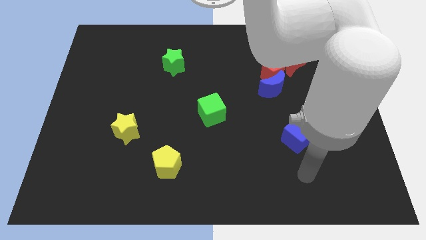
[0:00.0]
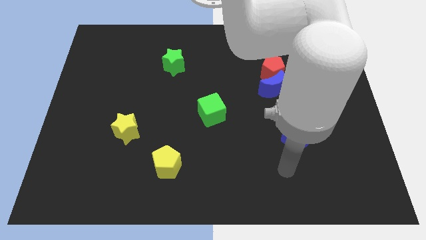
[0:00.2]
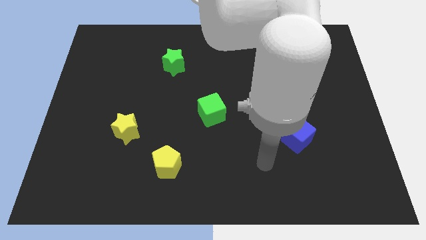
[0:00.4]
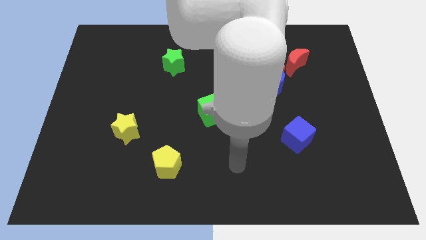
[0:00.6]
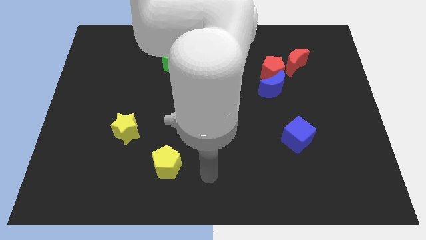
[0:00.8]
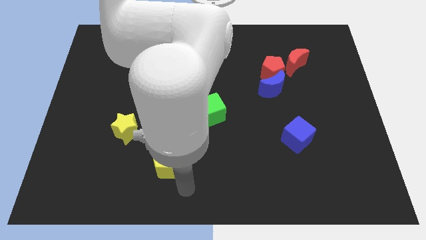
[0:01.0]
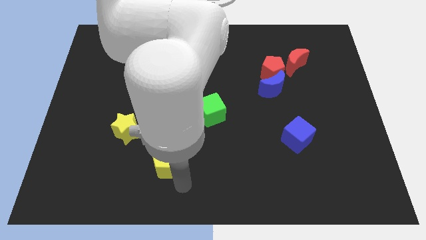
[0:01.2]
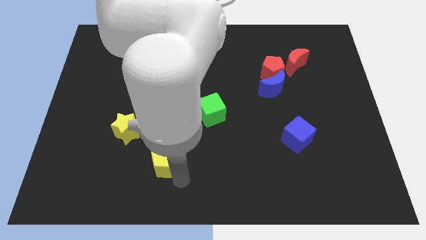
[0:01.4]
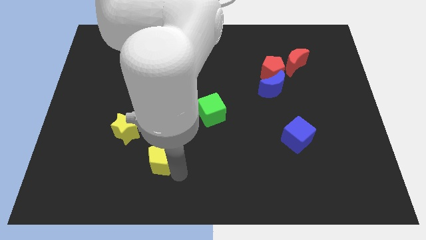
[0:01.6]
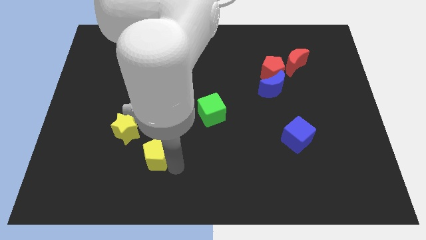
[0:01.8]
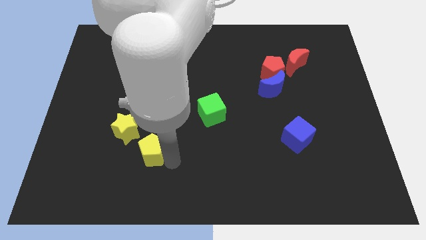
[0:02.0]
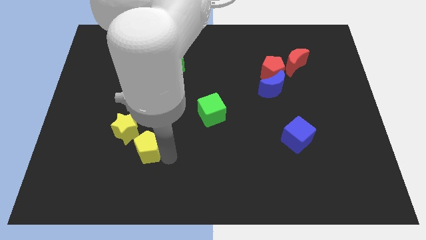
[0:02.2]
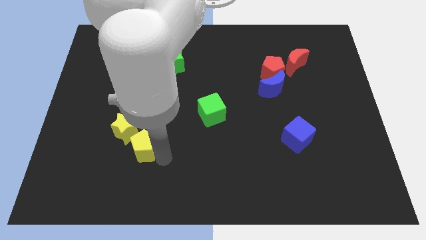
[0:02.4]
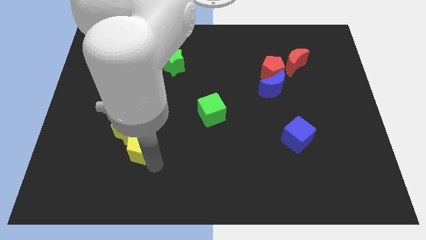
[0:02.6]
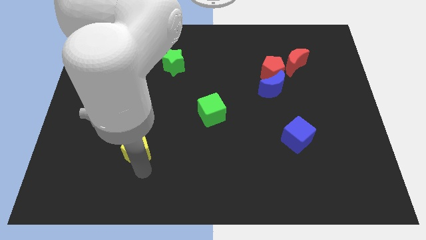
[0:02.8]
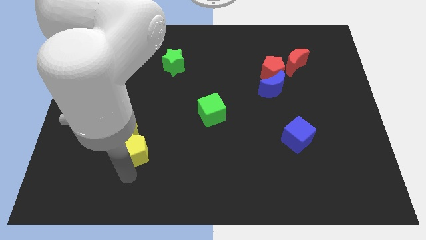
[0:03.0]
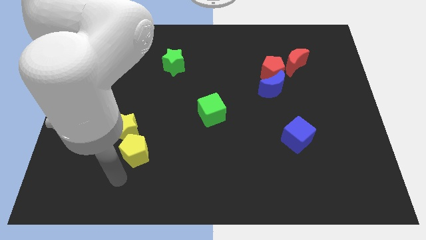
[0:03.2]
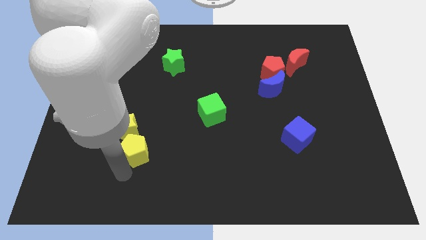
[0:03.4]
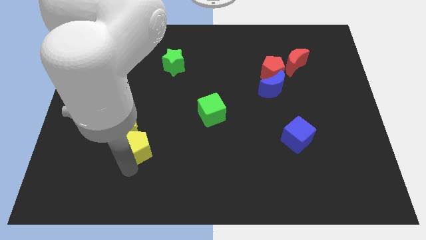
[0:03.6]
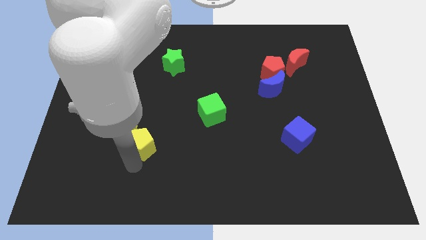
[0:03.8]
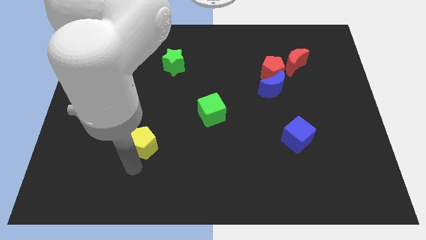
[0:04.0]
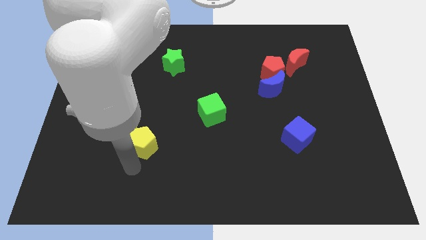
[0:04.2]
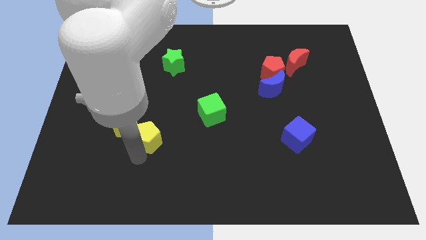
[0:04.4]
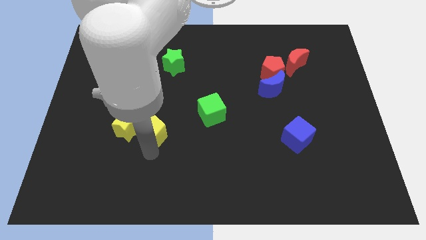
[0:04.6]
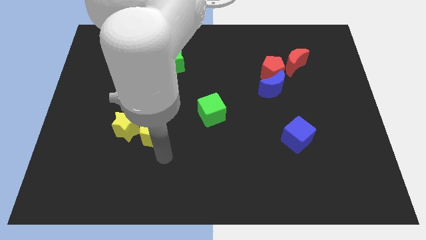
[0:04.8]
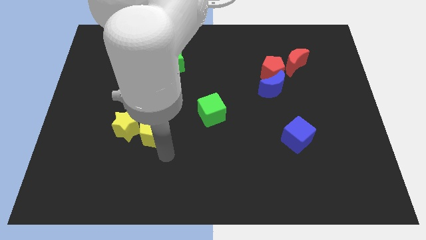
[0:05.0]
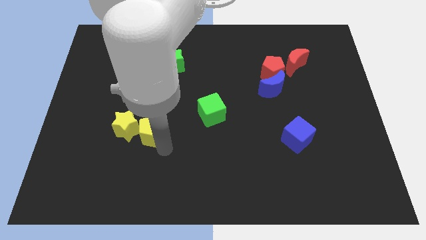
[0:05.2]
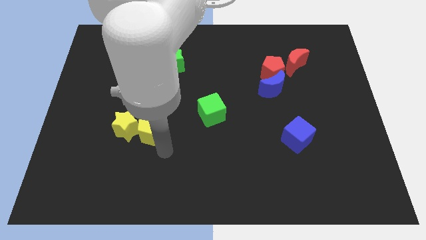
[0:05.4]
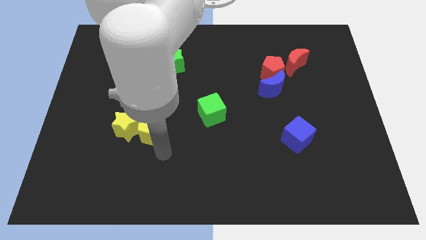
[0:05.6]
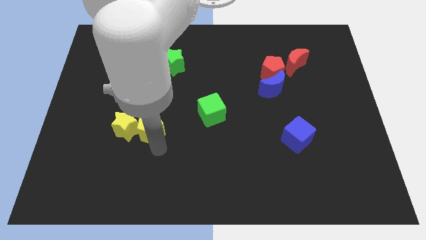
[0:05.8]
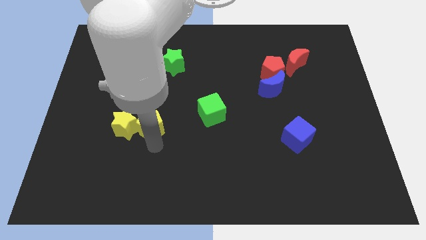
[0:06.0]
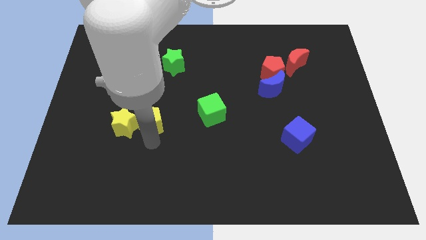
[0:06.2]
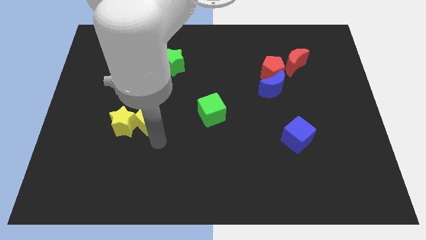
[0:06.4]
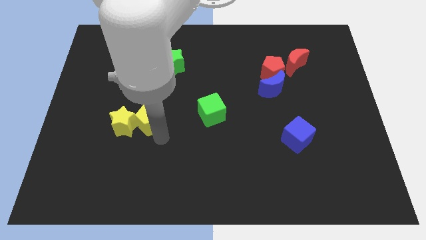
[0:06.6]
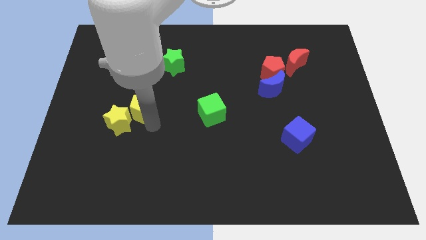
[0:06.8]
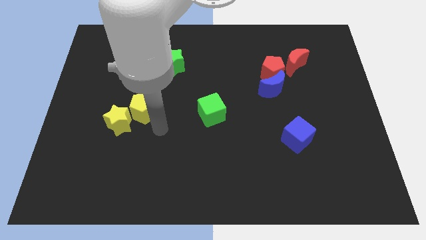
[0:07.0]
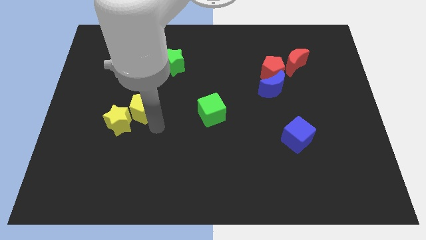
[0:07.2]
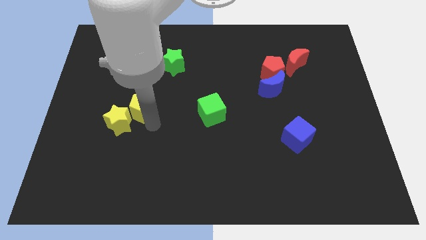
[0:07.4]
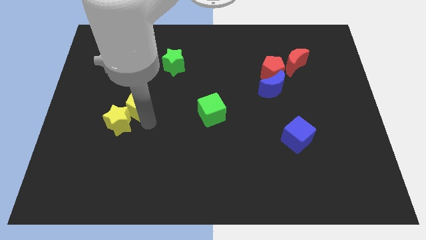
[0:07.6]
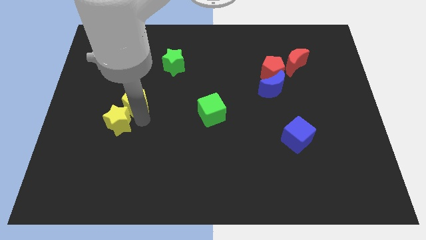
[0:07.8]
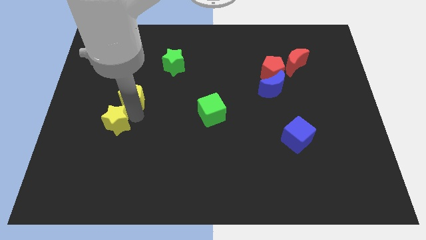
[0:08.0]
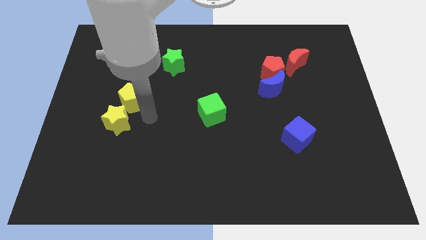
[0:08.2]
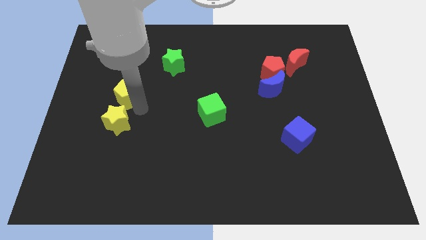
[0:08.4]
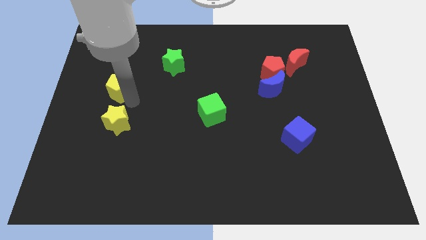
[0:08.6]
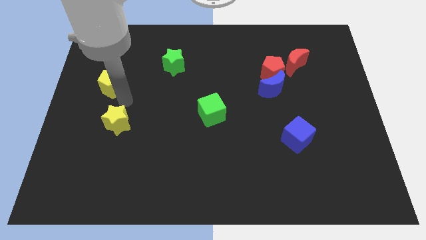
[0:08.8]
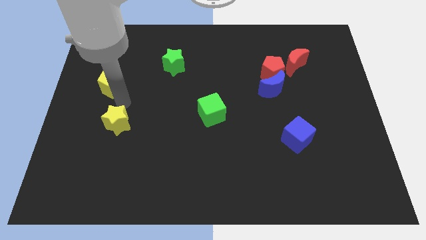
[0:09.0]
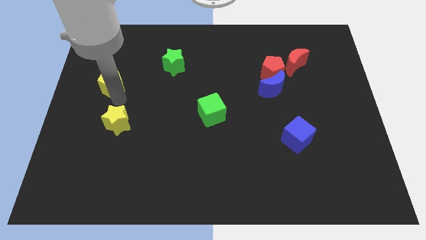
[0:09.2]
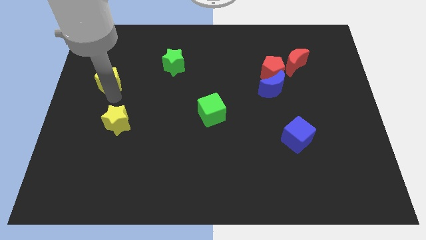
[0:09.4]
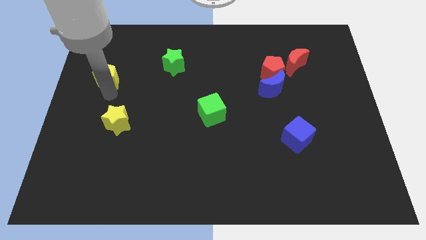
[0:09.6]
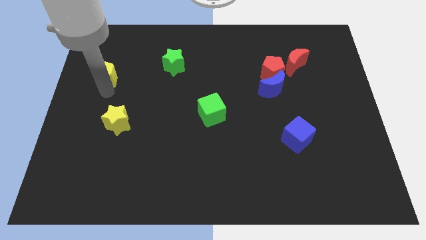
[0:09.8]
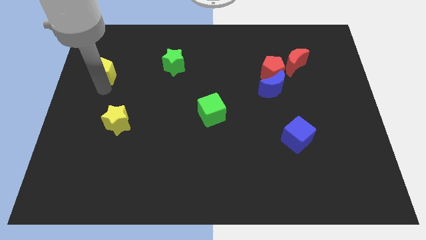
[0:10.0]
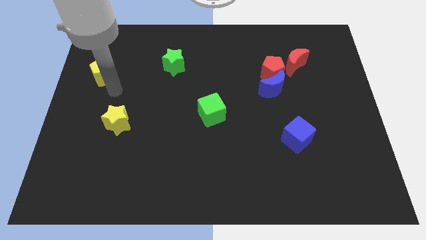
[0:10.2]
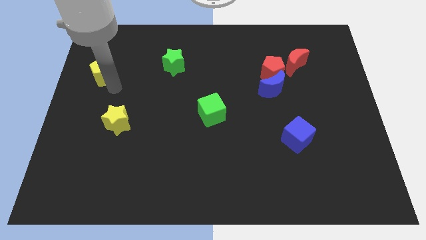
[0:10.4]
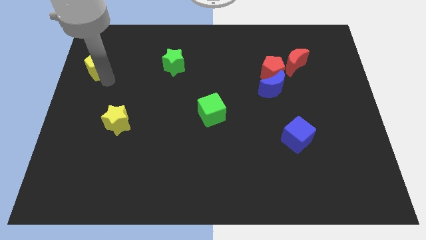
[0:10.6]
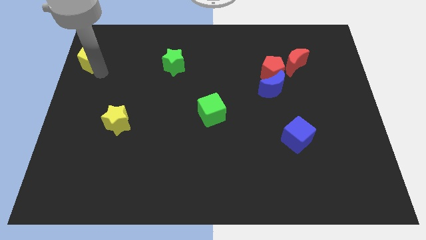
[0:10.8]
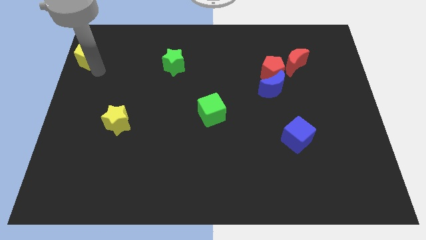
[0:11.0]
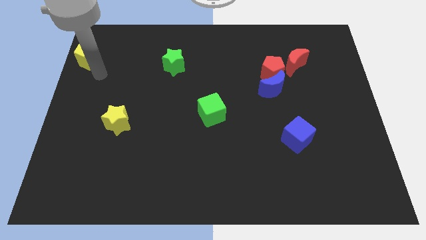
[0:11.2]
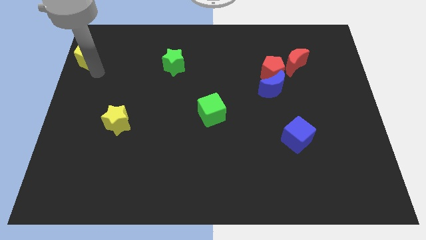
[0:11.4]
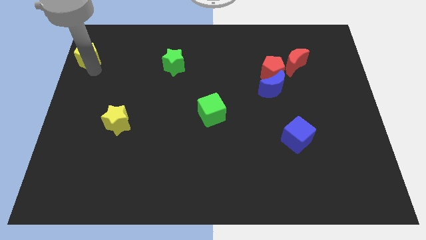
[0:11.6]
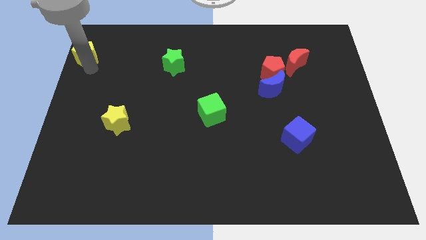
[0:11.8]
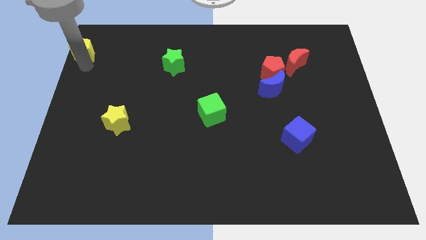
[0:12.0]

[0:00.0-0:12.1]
put the yellow pentagon to the top left corner
